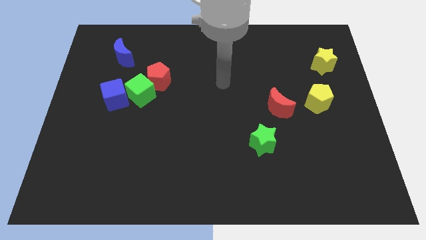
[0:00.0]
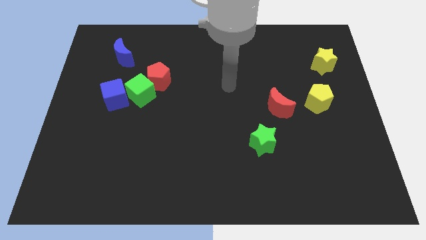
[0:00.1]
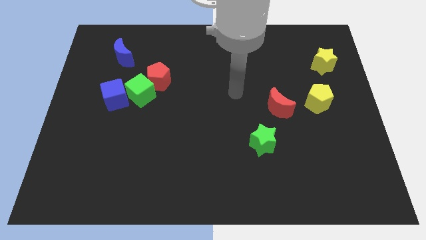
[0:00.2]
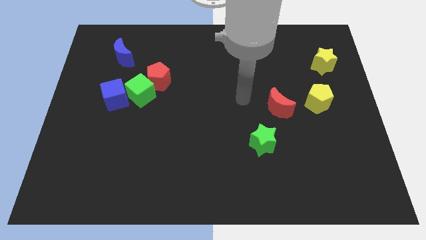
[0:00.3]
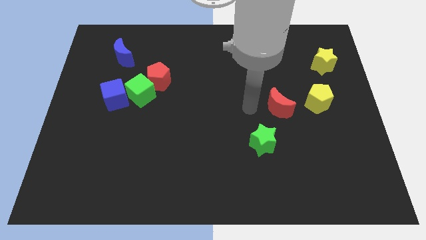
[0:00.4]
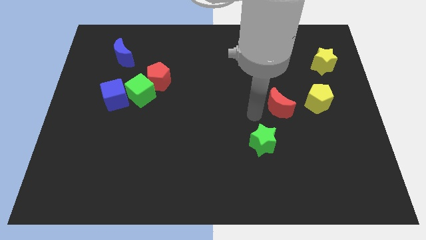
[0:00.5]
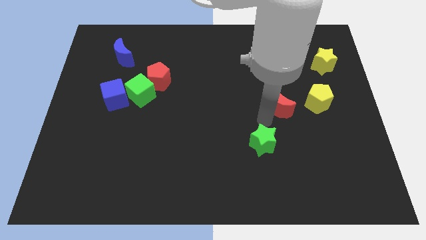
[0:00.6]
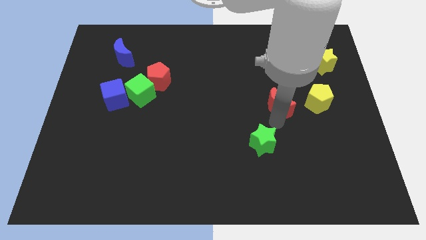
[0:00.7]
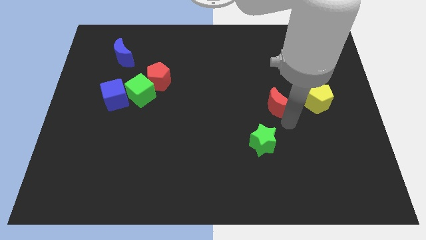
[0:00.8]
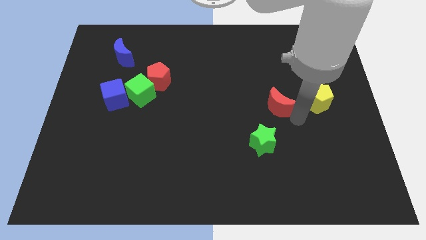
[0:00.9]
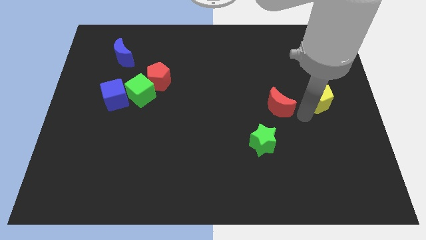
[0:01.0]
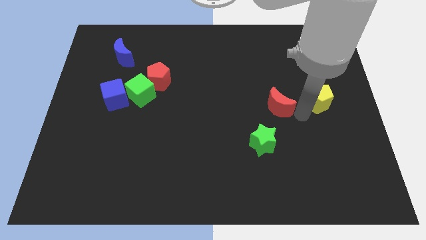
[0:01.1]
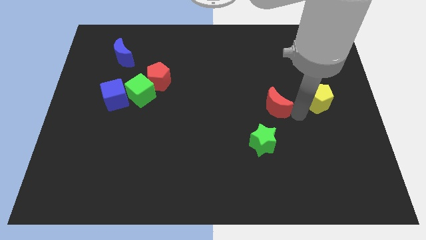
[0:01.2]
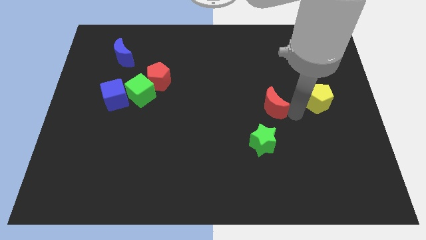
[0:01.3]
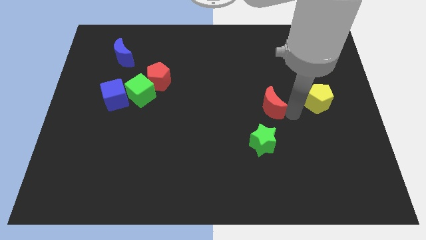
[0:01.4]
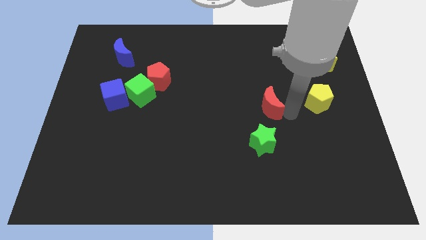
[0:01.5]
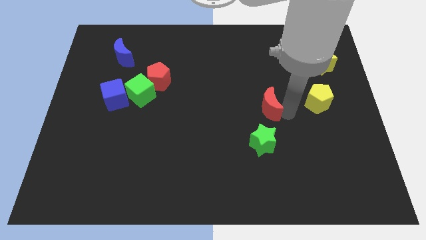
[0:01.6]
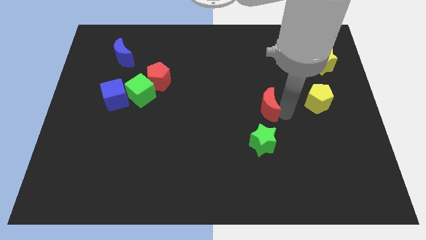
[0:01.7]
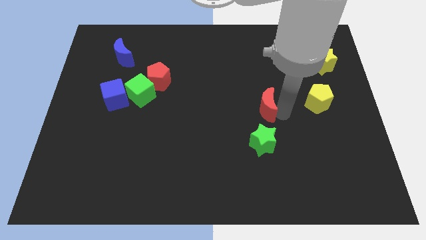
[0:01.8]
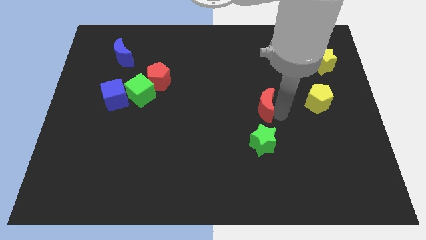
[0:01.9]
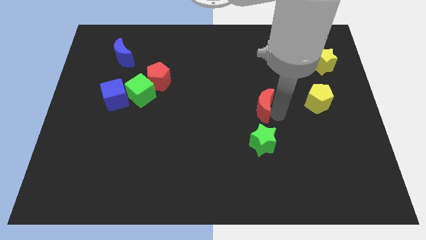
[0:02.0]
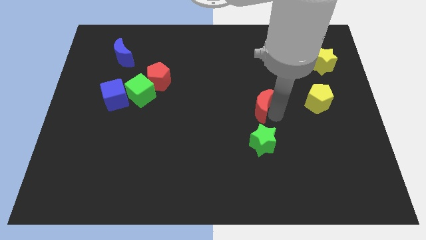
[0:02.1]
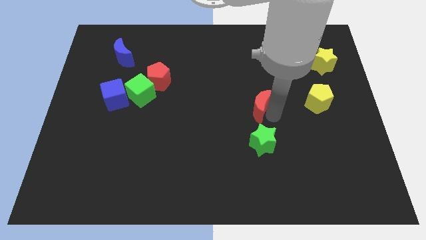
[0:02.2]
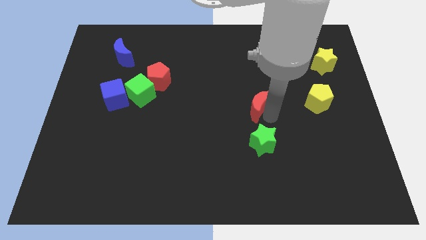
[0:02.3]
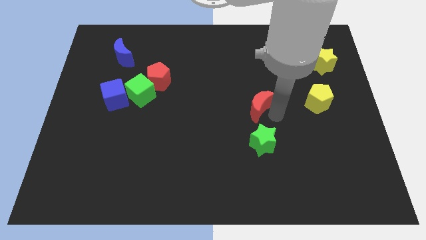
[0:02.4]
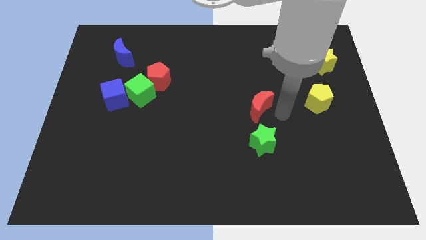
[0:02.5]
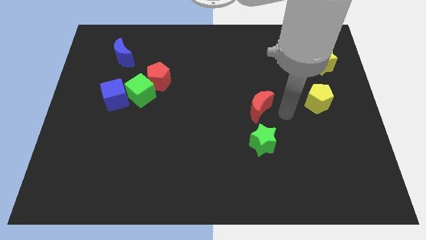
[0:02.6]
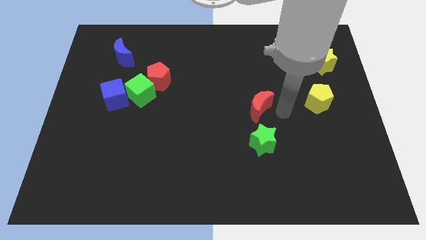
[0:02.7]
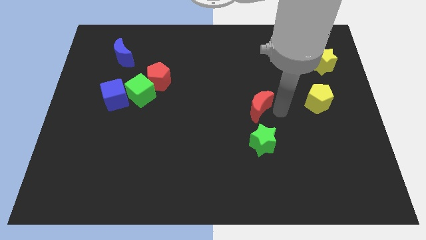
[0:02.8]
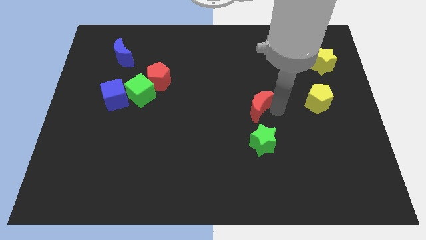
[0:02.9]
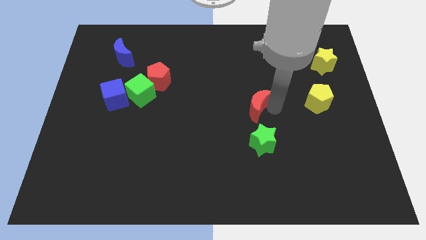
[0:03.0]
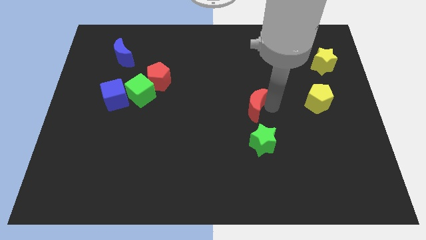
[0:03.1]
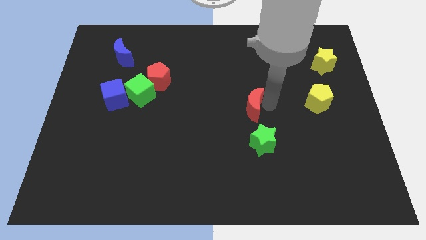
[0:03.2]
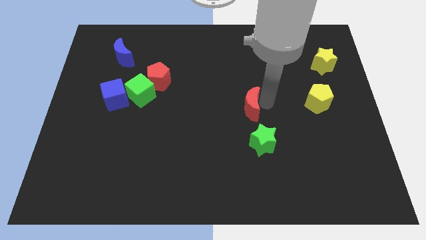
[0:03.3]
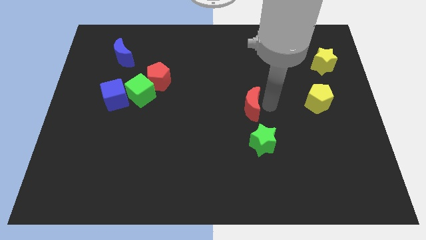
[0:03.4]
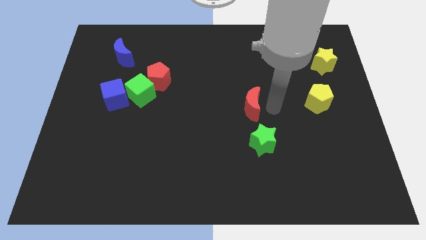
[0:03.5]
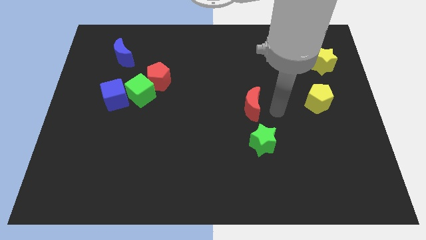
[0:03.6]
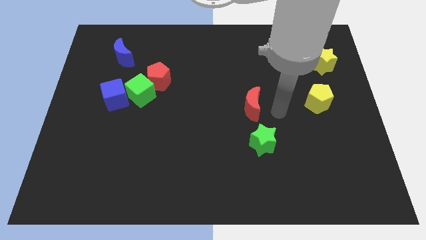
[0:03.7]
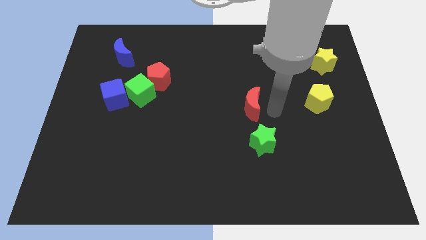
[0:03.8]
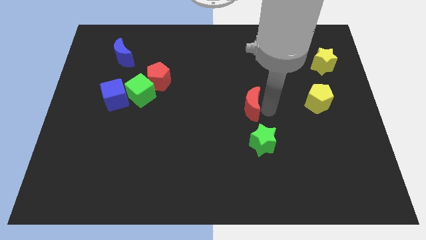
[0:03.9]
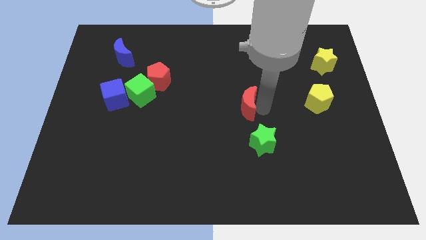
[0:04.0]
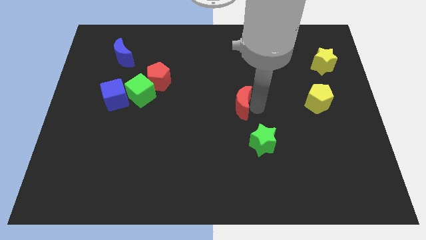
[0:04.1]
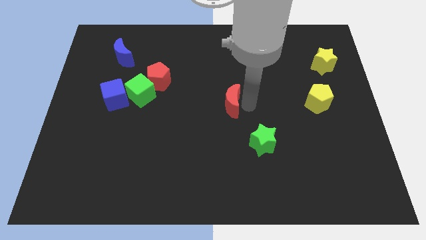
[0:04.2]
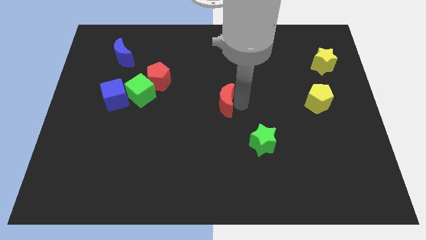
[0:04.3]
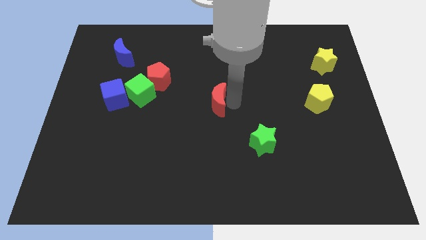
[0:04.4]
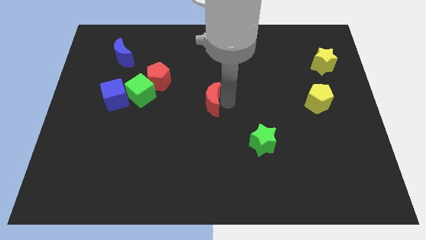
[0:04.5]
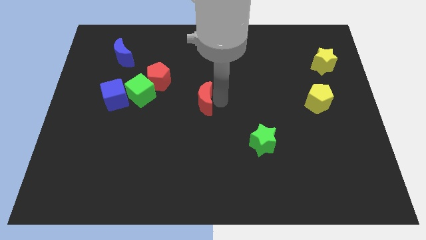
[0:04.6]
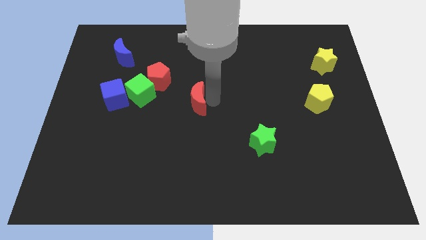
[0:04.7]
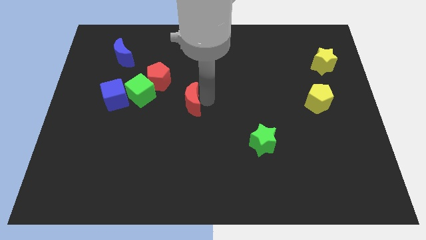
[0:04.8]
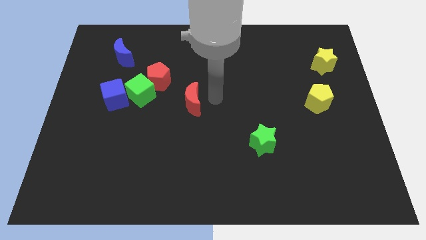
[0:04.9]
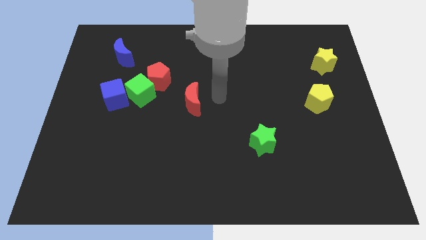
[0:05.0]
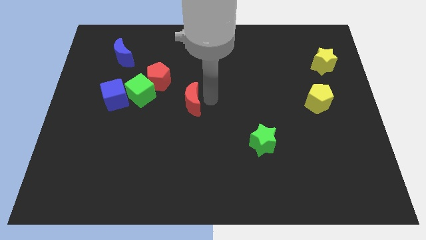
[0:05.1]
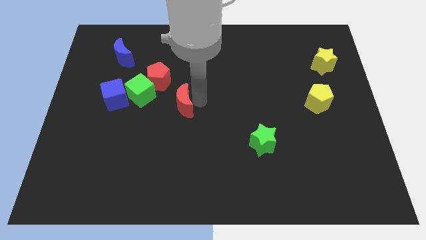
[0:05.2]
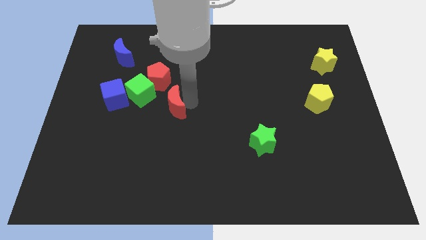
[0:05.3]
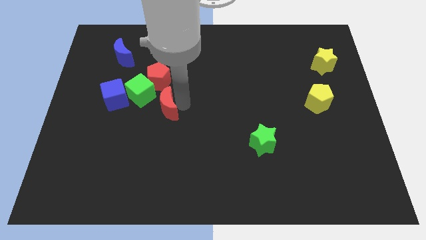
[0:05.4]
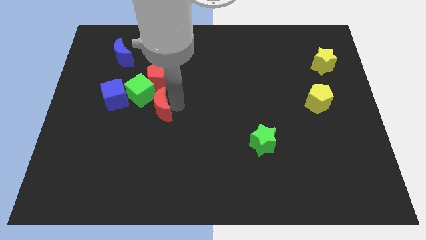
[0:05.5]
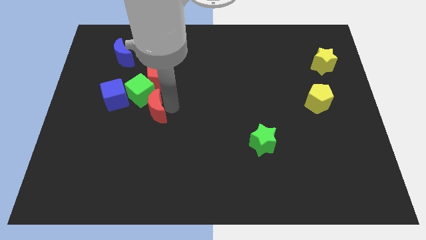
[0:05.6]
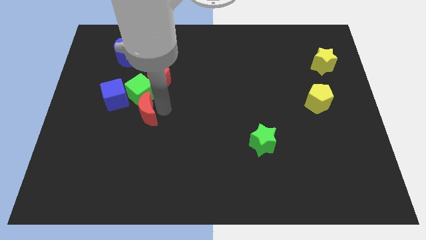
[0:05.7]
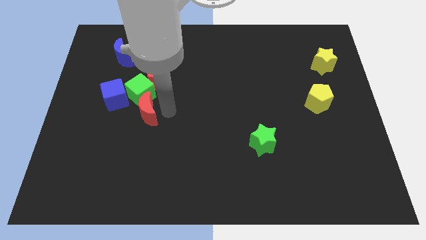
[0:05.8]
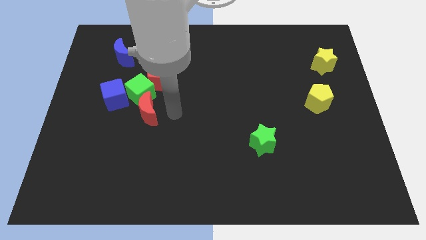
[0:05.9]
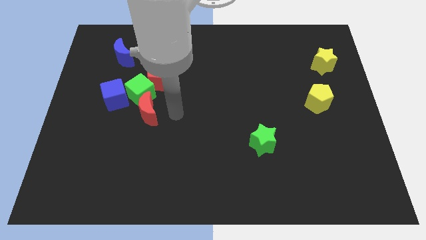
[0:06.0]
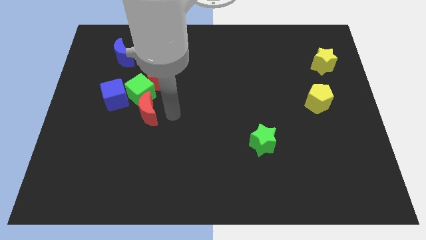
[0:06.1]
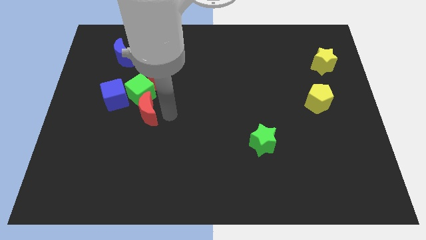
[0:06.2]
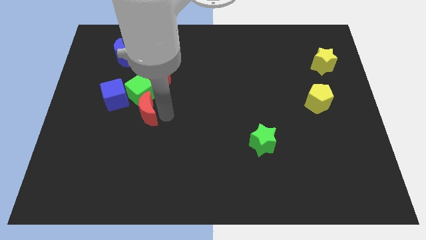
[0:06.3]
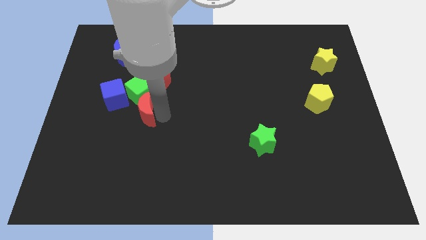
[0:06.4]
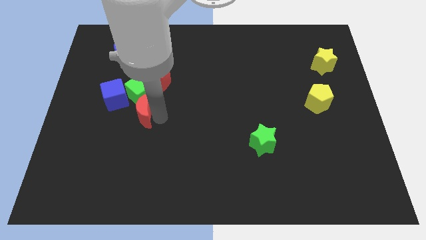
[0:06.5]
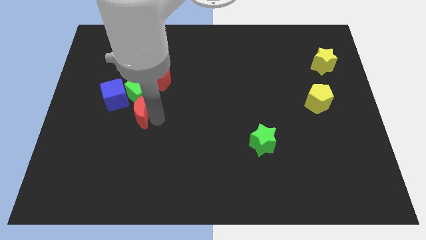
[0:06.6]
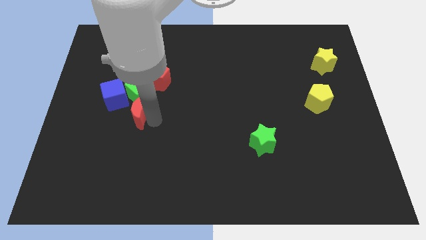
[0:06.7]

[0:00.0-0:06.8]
move the red moon to the bottom left side of the green cube
